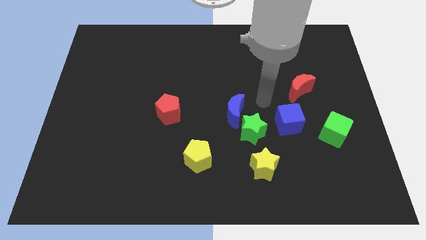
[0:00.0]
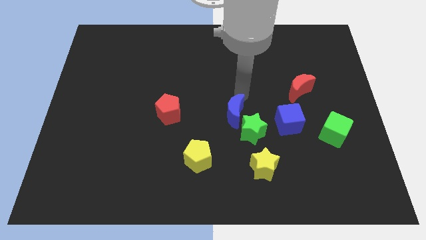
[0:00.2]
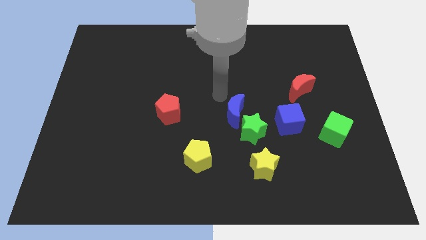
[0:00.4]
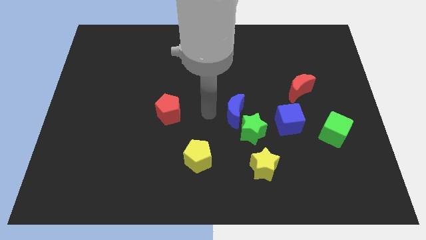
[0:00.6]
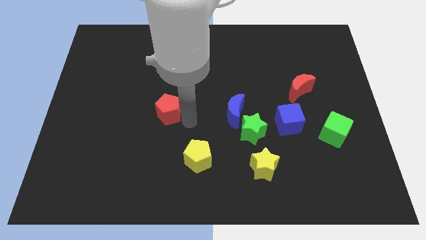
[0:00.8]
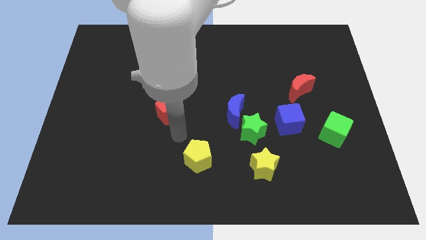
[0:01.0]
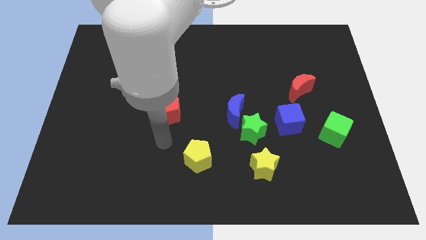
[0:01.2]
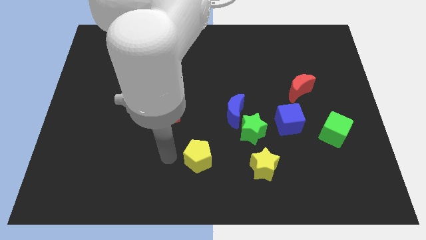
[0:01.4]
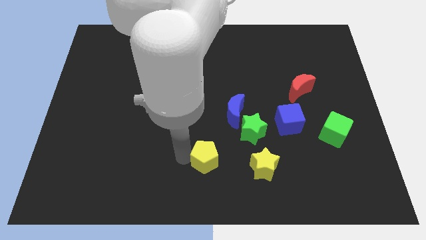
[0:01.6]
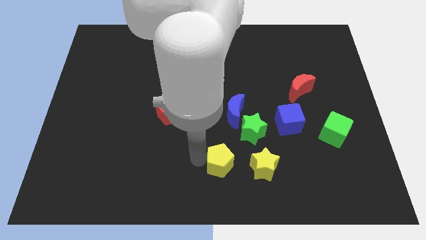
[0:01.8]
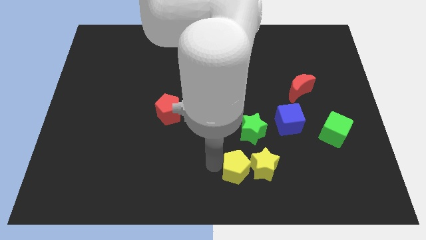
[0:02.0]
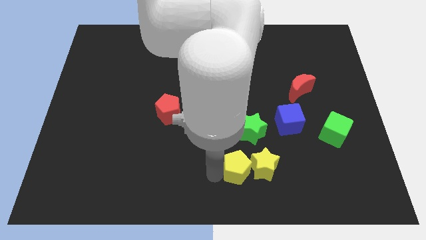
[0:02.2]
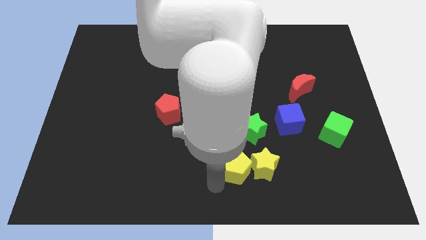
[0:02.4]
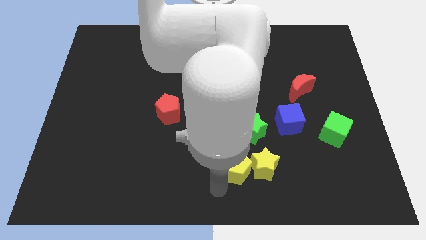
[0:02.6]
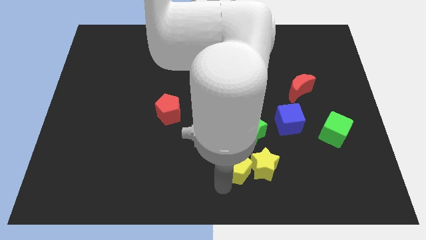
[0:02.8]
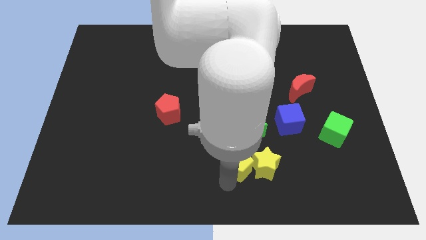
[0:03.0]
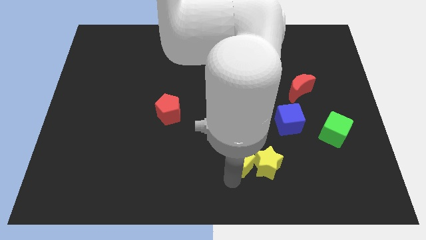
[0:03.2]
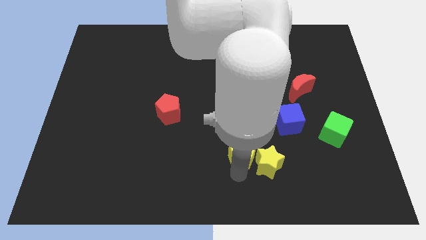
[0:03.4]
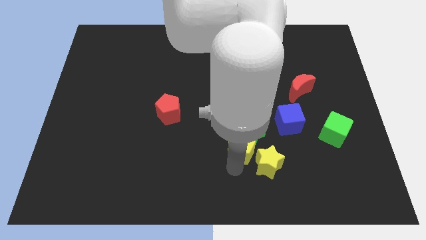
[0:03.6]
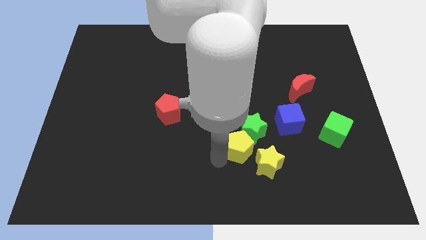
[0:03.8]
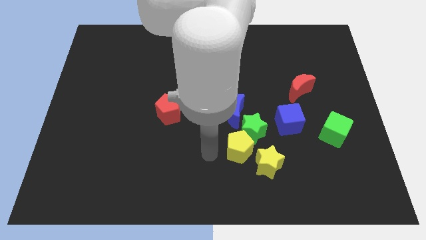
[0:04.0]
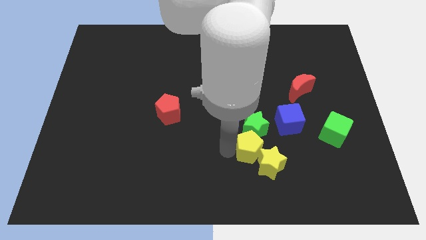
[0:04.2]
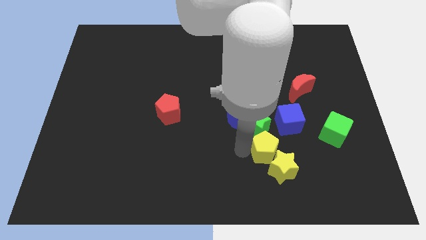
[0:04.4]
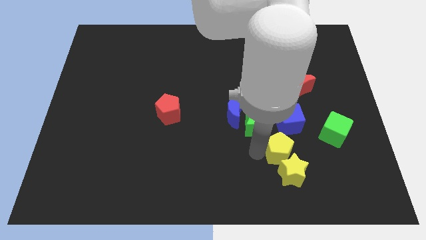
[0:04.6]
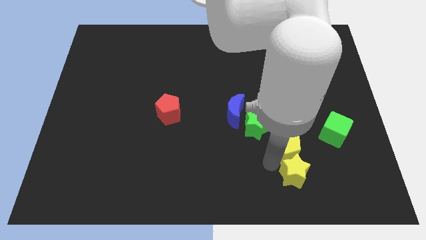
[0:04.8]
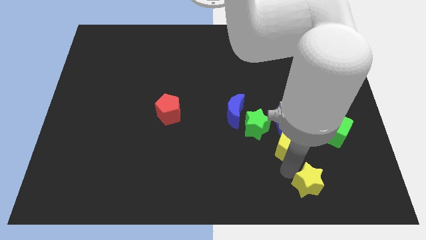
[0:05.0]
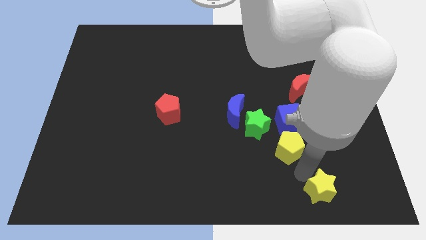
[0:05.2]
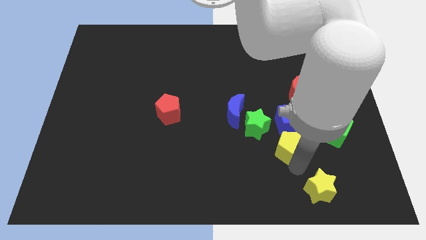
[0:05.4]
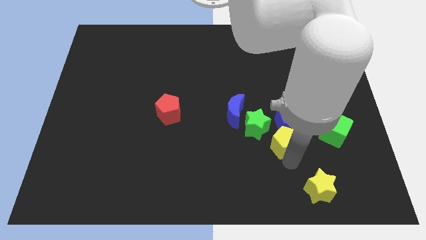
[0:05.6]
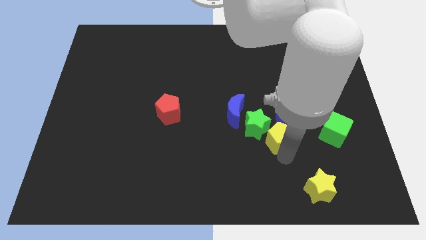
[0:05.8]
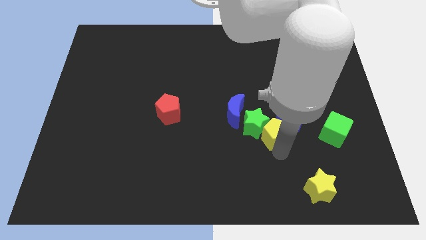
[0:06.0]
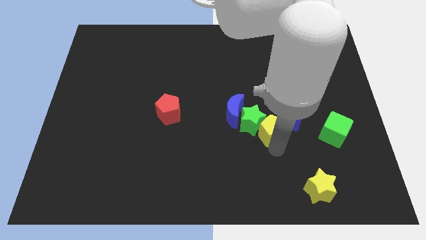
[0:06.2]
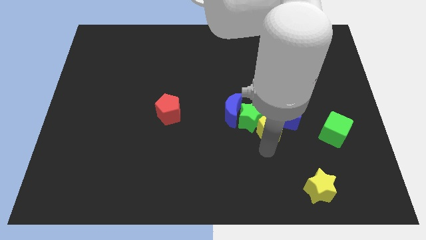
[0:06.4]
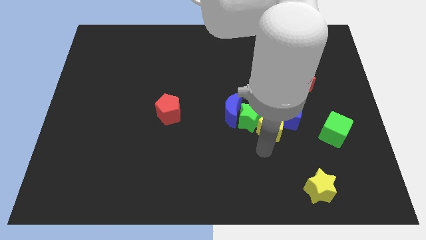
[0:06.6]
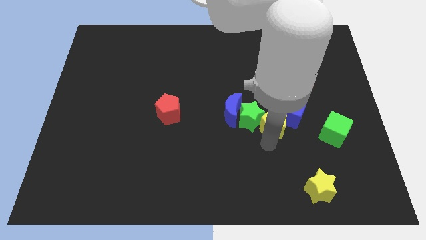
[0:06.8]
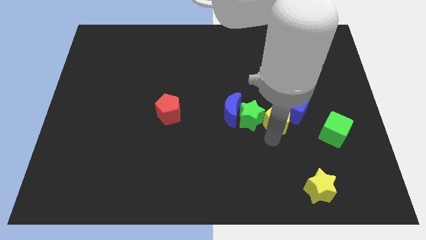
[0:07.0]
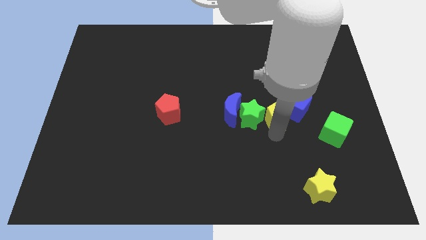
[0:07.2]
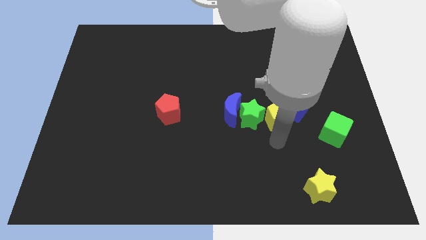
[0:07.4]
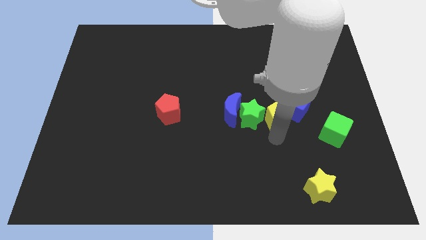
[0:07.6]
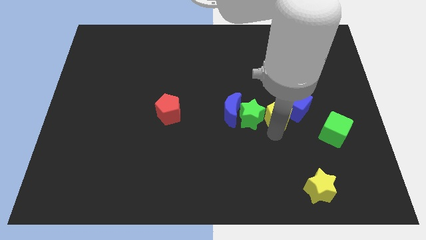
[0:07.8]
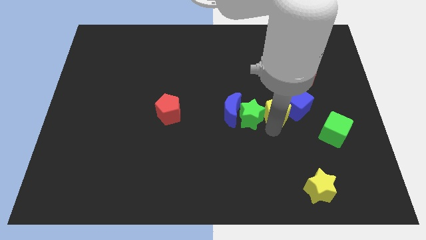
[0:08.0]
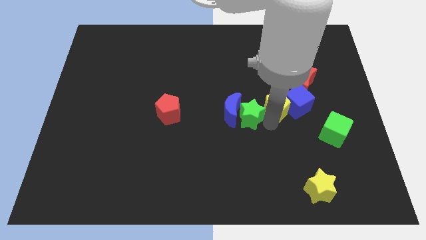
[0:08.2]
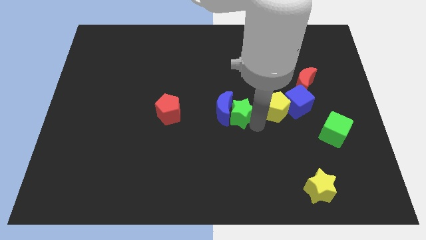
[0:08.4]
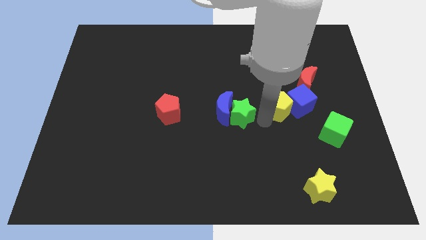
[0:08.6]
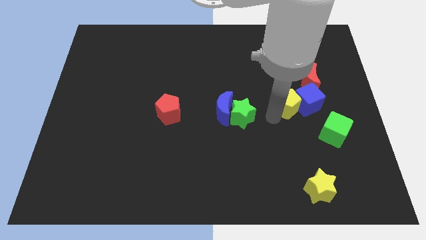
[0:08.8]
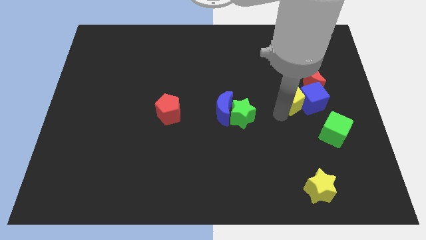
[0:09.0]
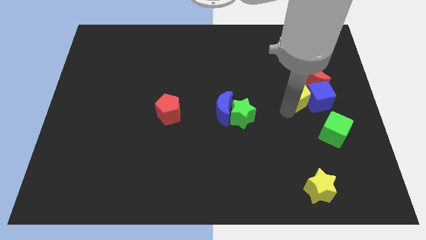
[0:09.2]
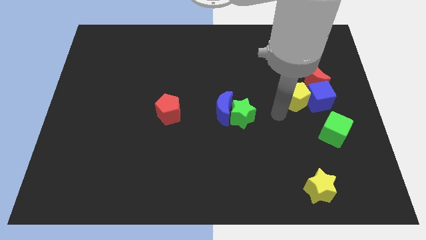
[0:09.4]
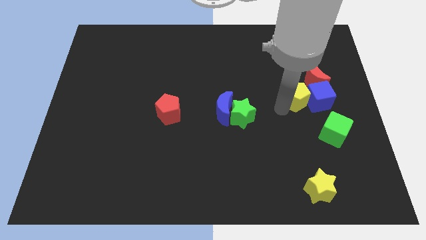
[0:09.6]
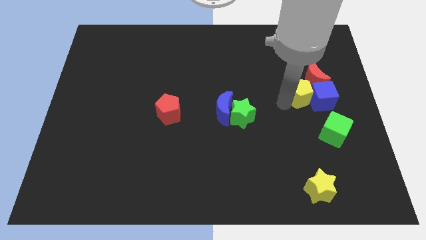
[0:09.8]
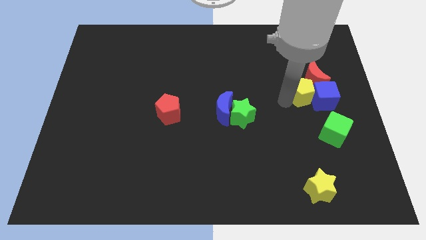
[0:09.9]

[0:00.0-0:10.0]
slide the yellow pentagon to the red moon

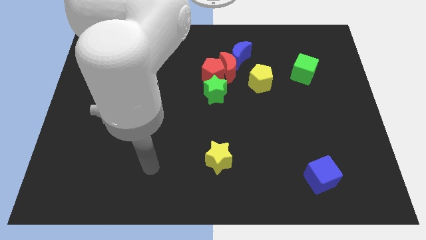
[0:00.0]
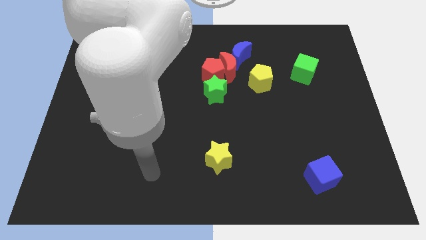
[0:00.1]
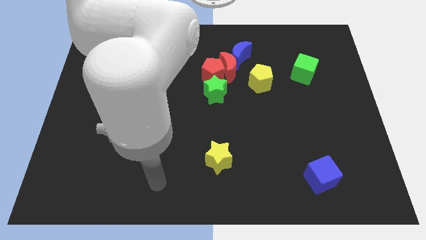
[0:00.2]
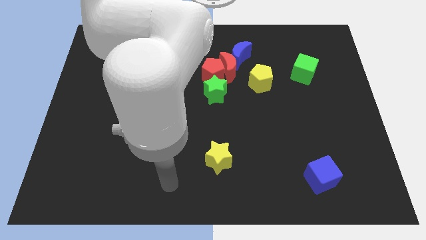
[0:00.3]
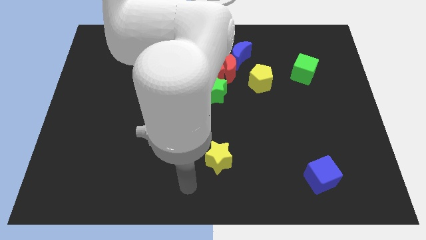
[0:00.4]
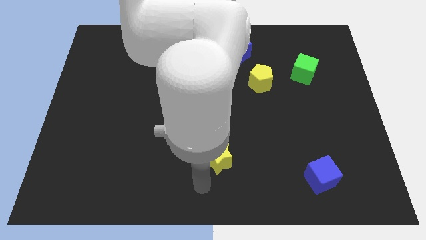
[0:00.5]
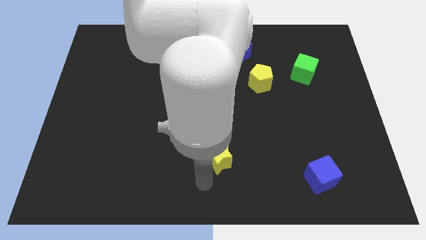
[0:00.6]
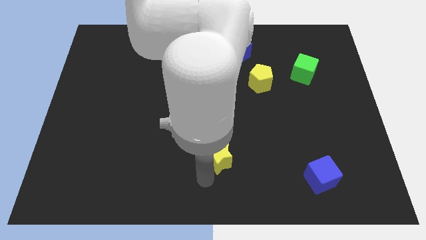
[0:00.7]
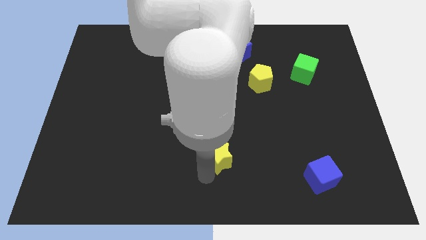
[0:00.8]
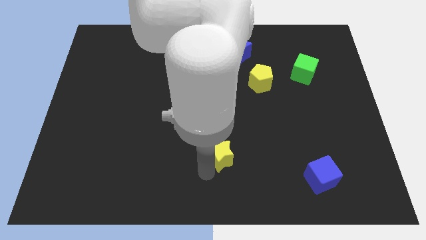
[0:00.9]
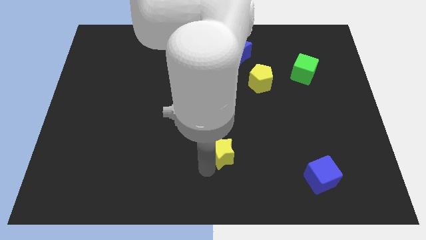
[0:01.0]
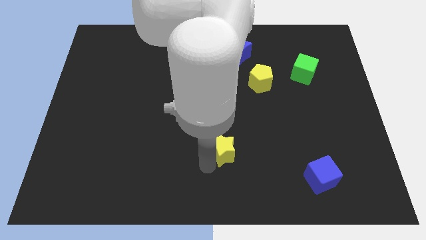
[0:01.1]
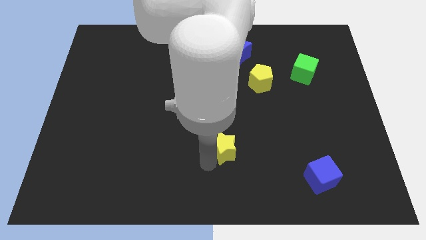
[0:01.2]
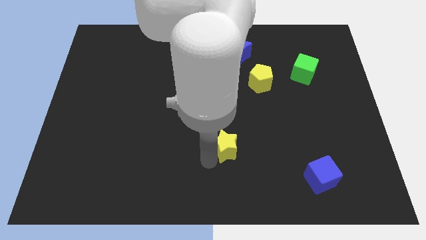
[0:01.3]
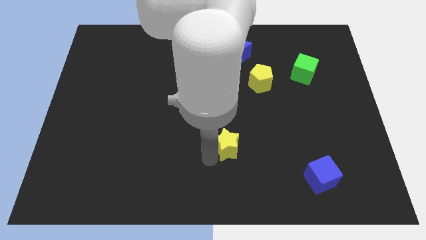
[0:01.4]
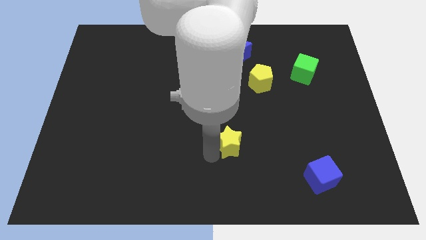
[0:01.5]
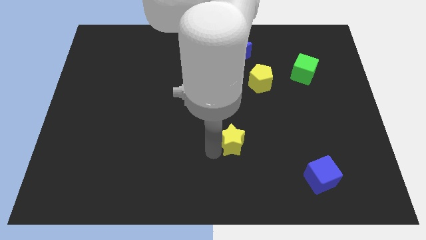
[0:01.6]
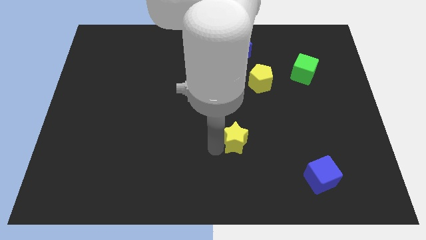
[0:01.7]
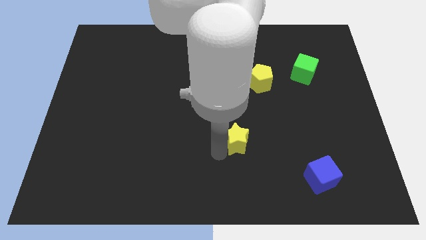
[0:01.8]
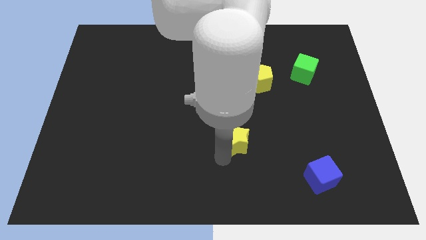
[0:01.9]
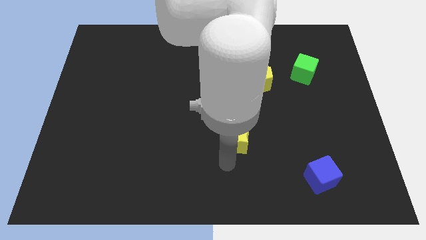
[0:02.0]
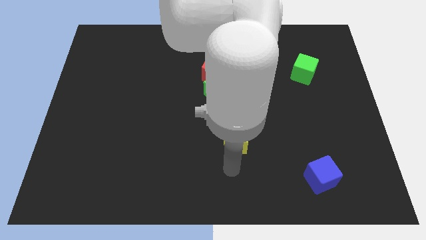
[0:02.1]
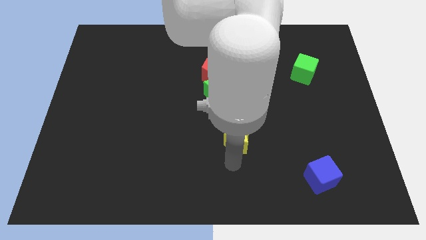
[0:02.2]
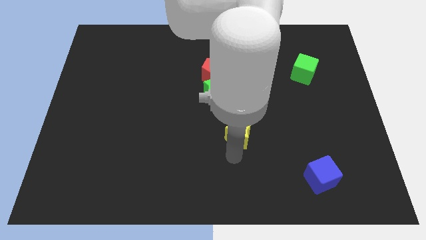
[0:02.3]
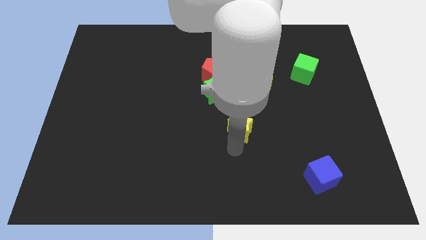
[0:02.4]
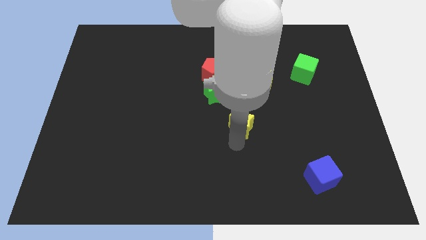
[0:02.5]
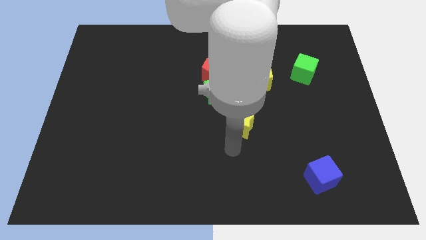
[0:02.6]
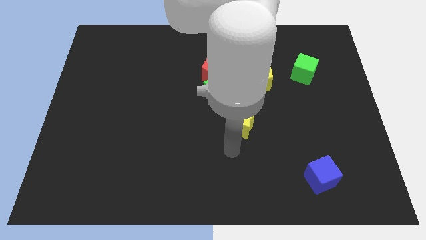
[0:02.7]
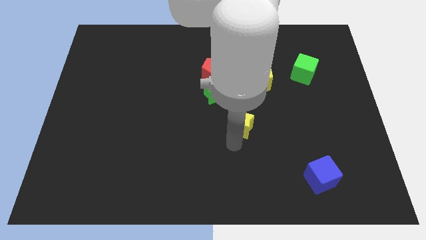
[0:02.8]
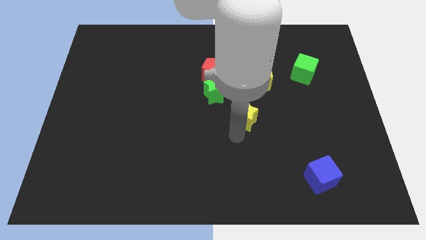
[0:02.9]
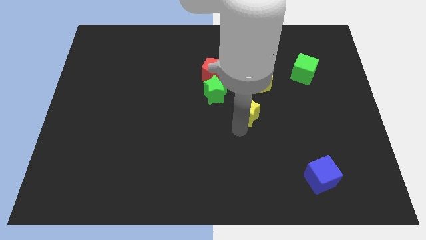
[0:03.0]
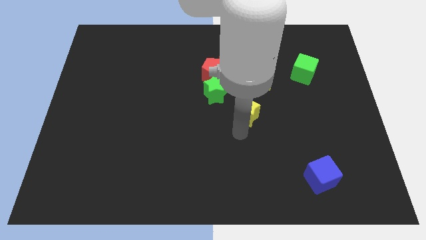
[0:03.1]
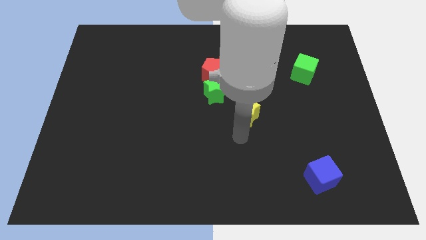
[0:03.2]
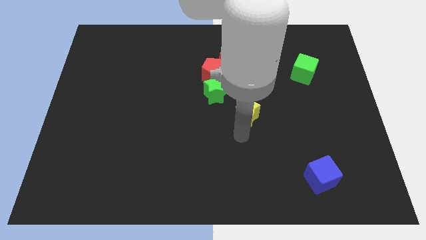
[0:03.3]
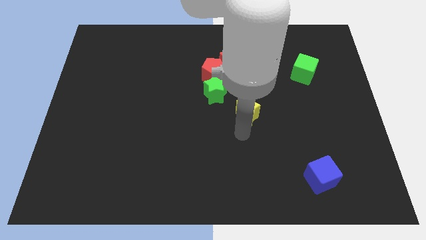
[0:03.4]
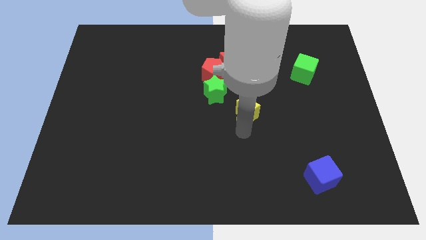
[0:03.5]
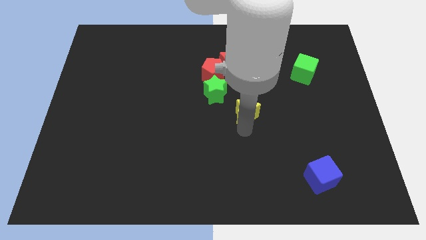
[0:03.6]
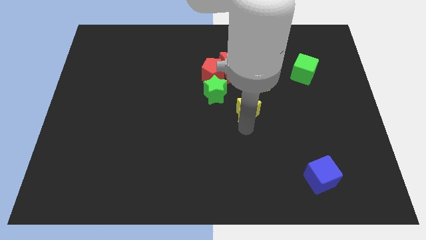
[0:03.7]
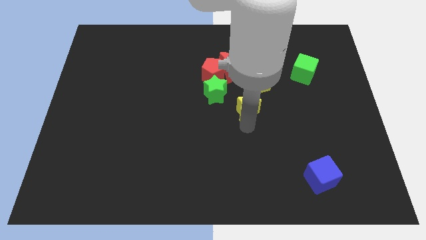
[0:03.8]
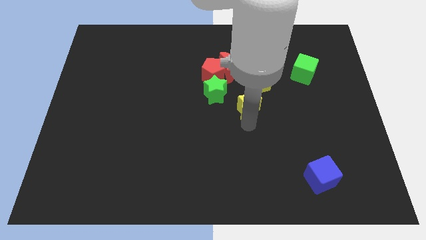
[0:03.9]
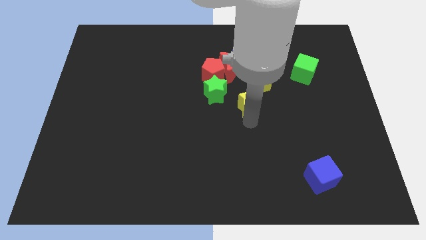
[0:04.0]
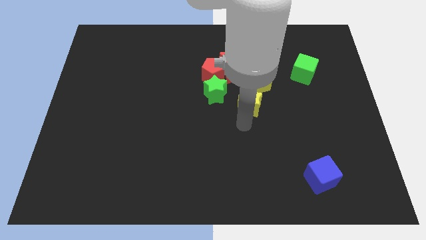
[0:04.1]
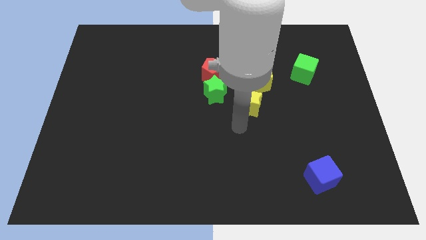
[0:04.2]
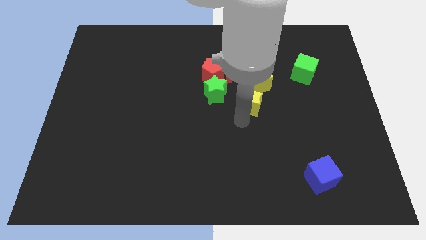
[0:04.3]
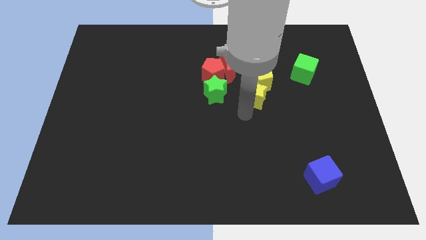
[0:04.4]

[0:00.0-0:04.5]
slide the yellow star to the yellow pentagon
